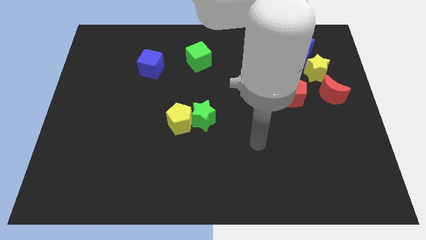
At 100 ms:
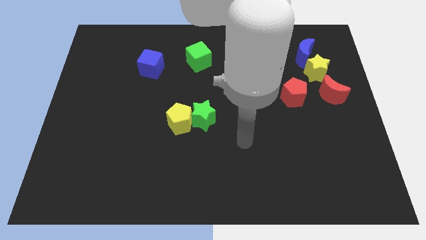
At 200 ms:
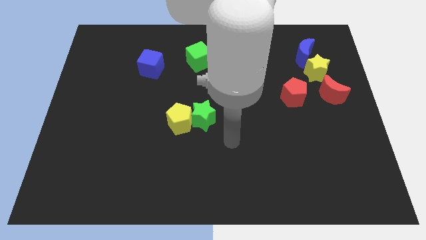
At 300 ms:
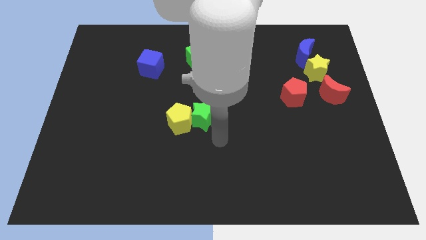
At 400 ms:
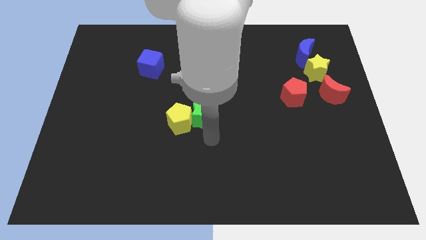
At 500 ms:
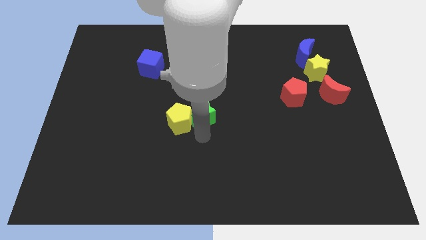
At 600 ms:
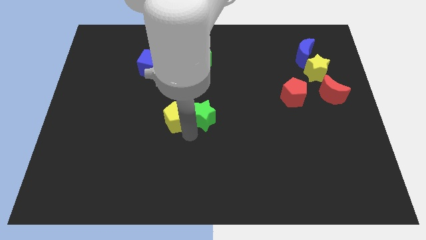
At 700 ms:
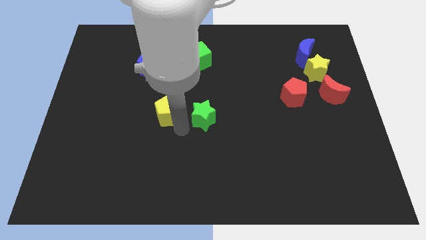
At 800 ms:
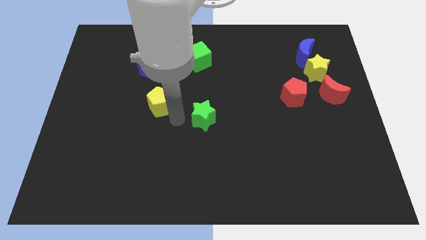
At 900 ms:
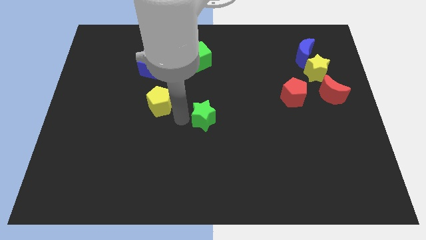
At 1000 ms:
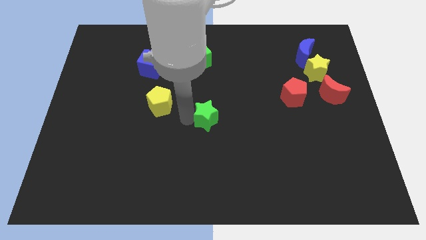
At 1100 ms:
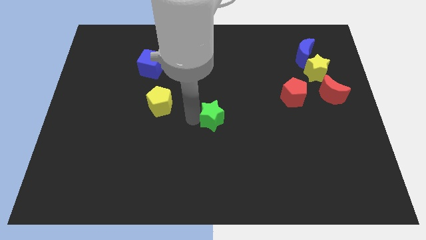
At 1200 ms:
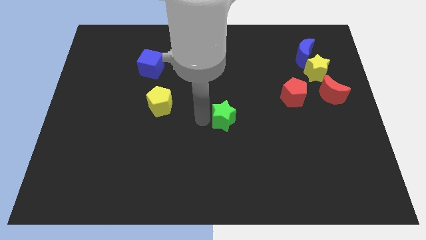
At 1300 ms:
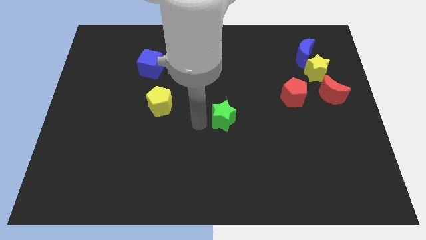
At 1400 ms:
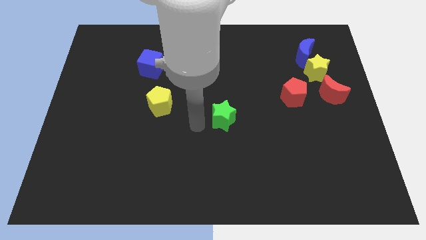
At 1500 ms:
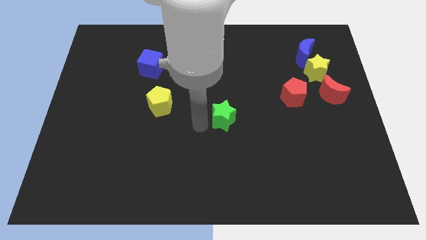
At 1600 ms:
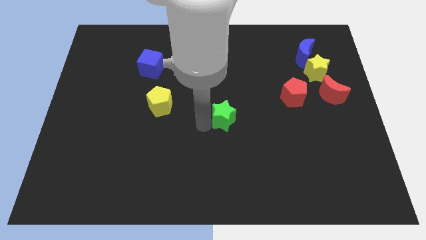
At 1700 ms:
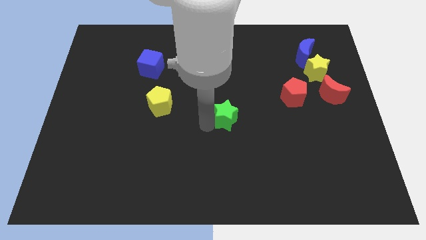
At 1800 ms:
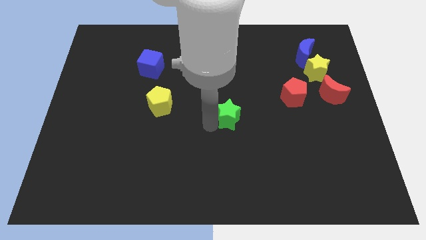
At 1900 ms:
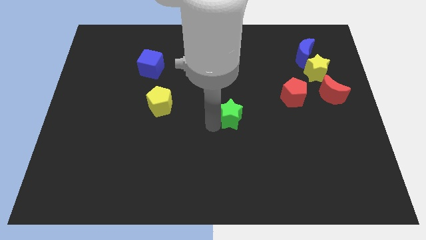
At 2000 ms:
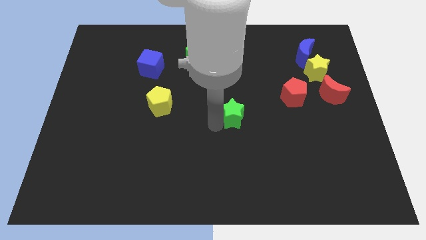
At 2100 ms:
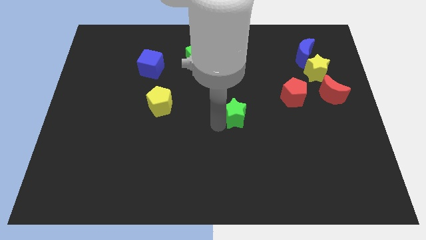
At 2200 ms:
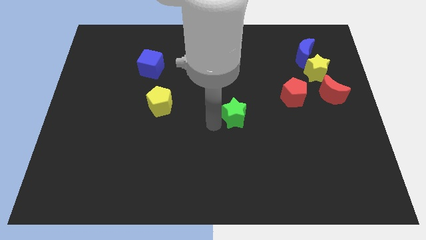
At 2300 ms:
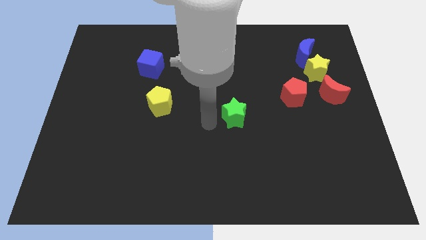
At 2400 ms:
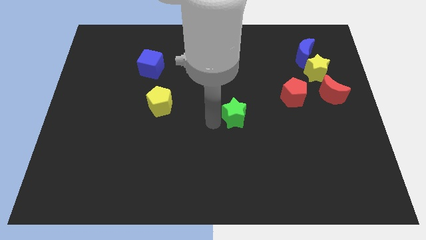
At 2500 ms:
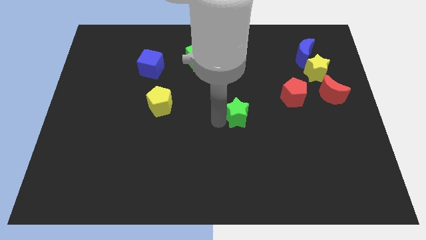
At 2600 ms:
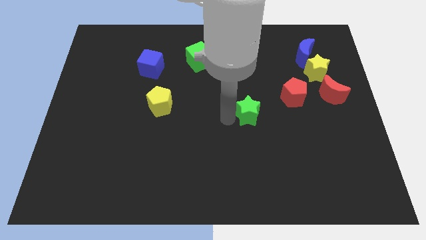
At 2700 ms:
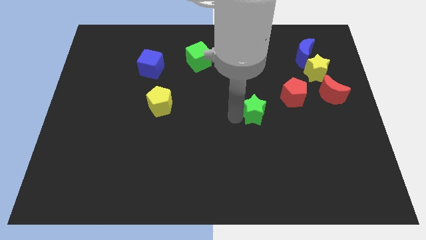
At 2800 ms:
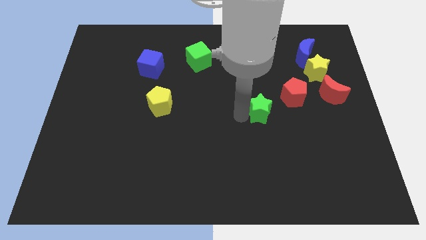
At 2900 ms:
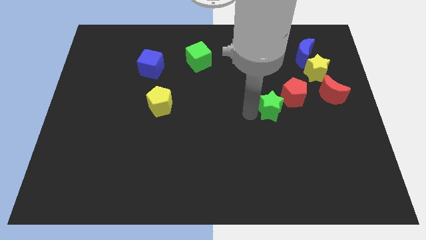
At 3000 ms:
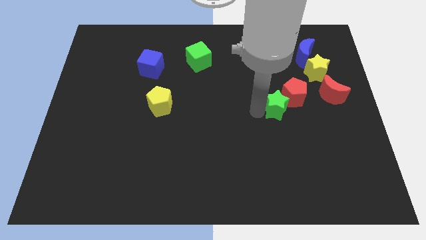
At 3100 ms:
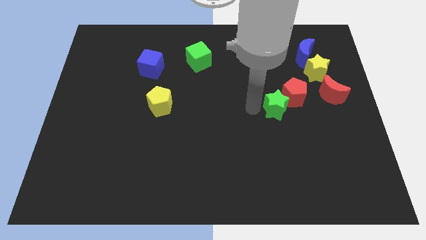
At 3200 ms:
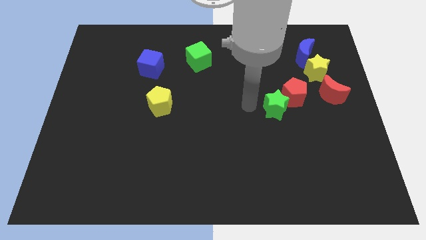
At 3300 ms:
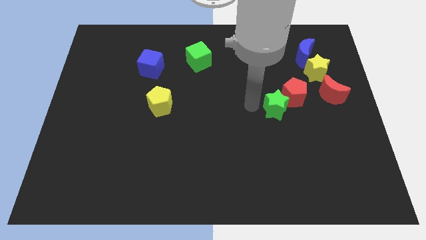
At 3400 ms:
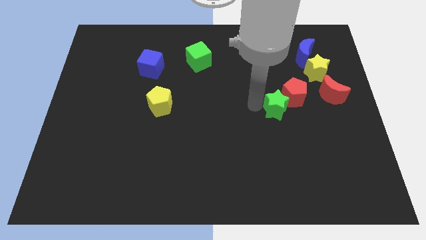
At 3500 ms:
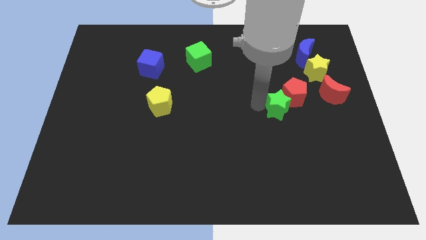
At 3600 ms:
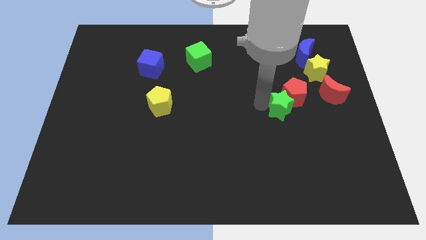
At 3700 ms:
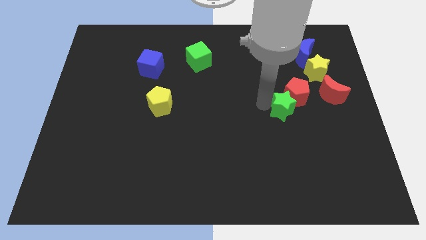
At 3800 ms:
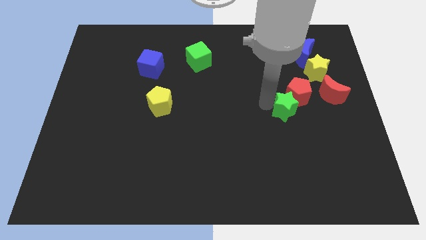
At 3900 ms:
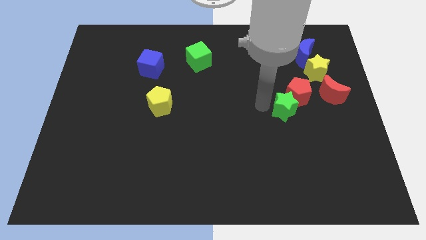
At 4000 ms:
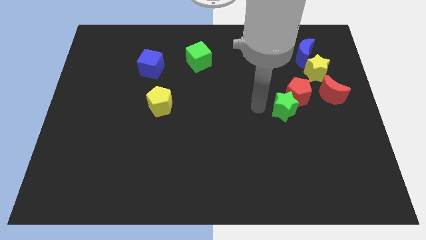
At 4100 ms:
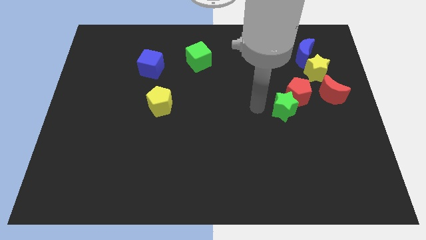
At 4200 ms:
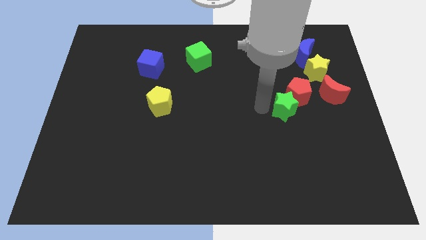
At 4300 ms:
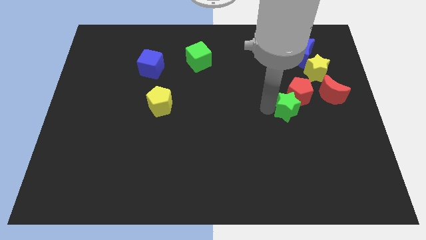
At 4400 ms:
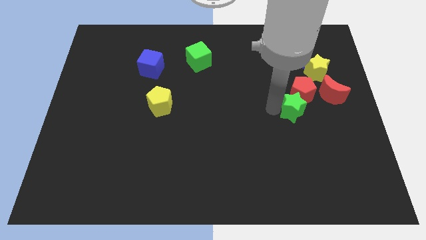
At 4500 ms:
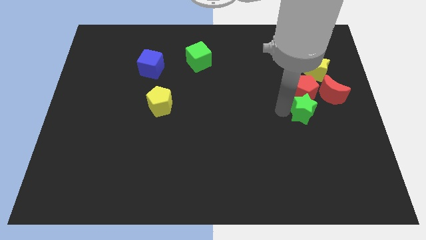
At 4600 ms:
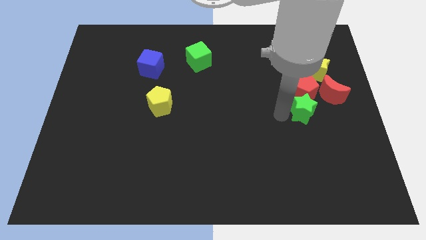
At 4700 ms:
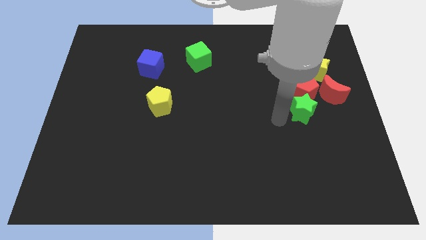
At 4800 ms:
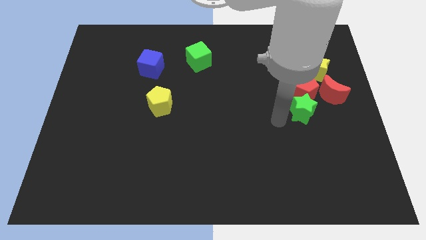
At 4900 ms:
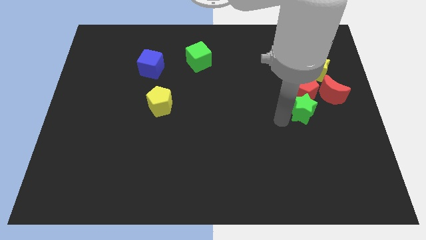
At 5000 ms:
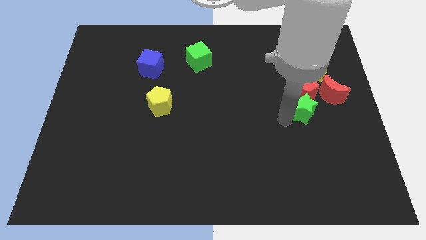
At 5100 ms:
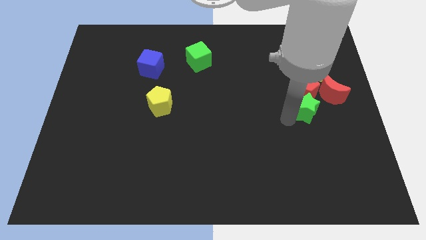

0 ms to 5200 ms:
slide the green star to the bottom of the yellow star

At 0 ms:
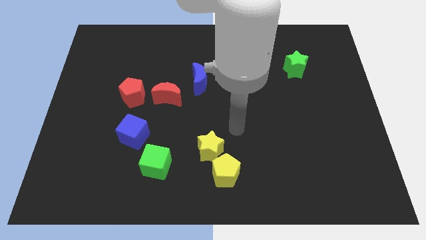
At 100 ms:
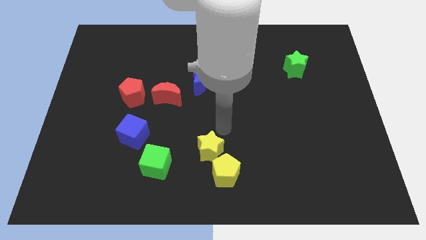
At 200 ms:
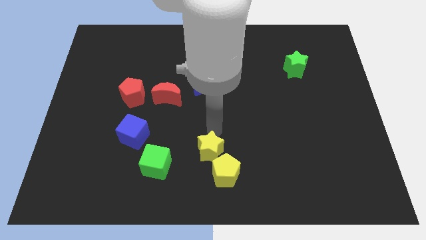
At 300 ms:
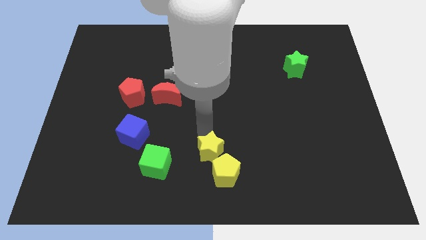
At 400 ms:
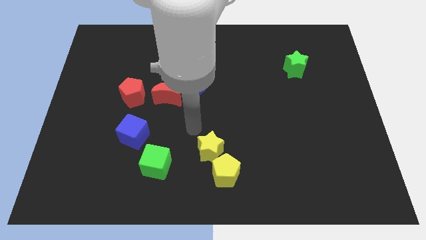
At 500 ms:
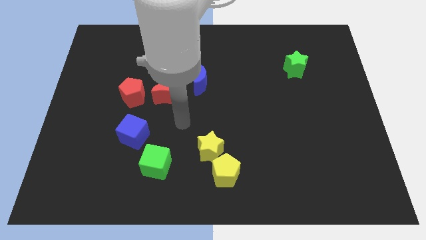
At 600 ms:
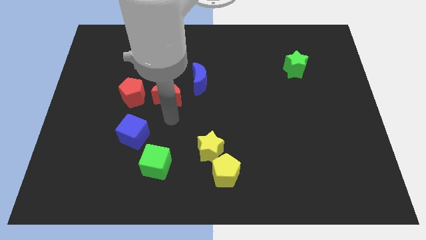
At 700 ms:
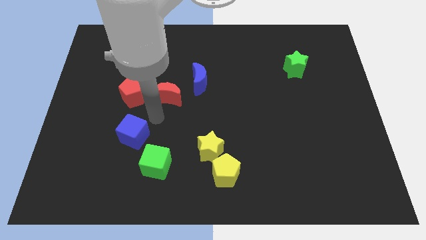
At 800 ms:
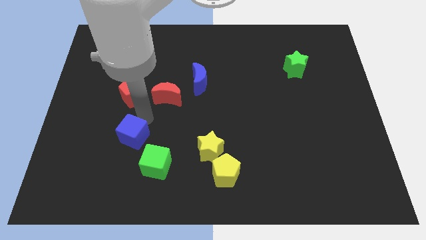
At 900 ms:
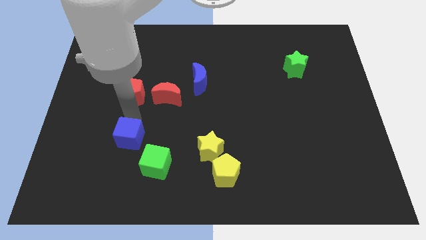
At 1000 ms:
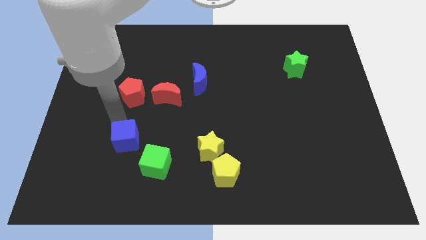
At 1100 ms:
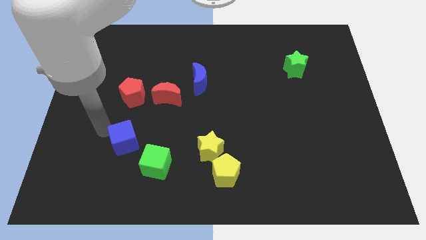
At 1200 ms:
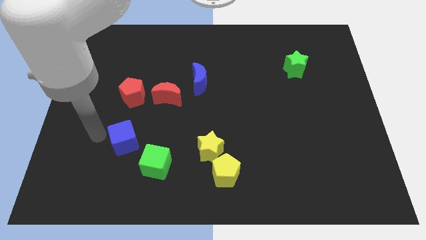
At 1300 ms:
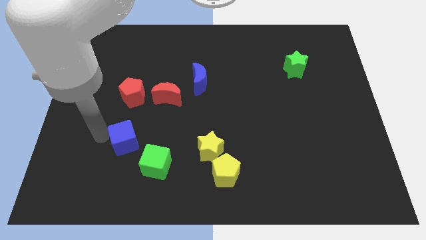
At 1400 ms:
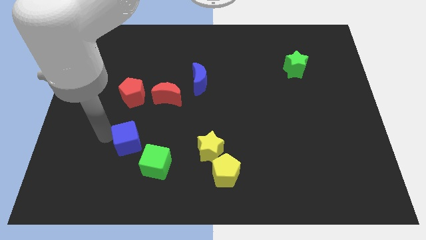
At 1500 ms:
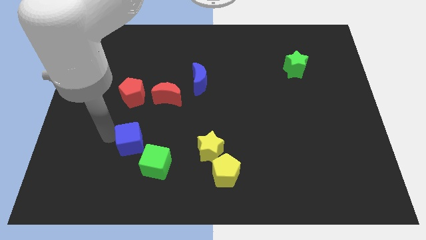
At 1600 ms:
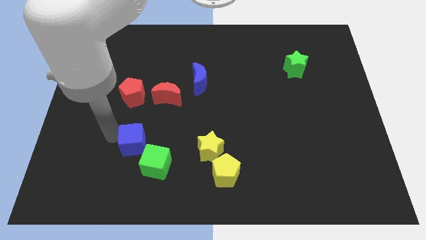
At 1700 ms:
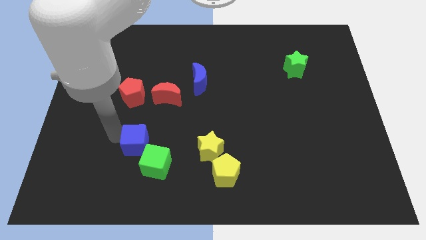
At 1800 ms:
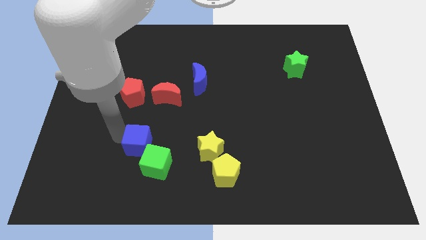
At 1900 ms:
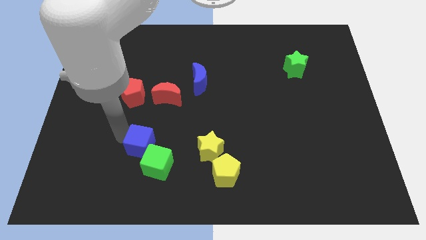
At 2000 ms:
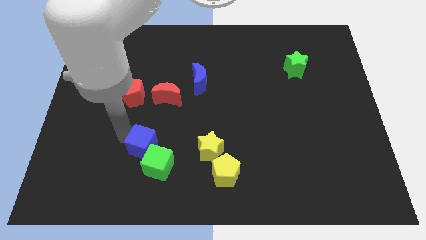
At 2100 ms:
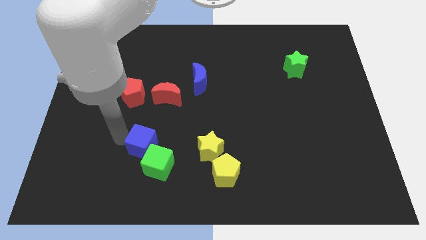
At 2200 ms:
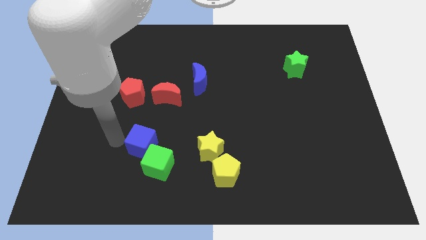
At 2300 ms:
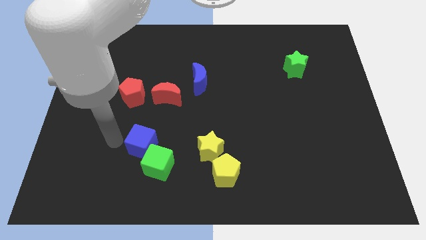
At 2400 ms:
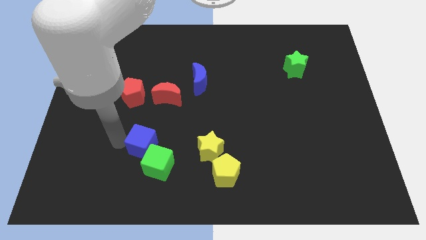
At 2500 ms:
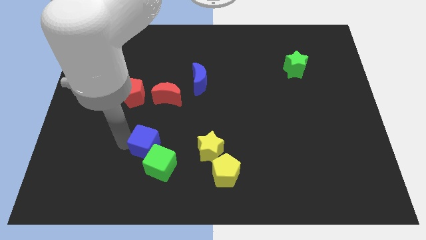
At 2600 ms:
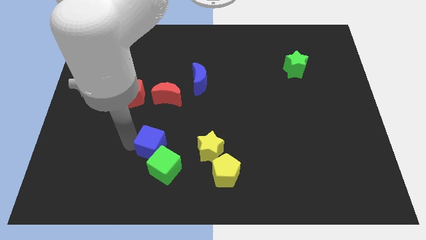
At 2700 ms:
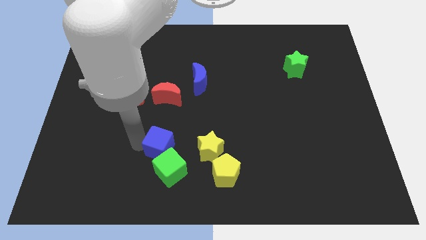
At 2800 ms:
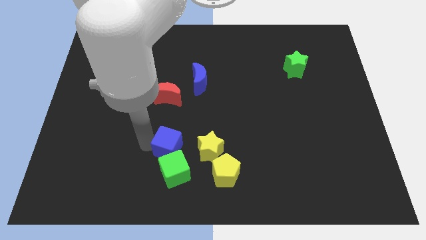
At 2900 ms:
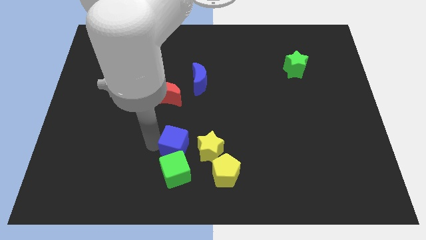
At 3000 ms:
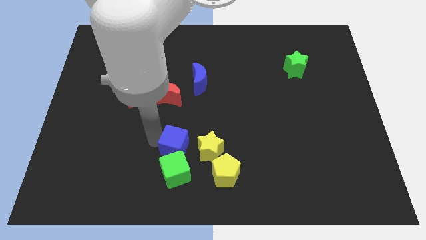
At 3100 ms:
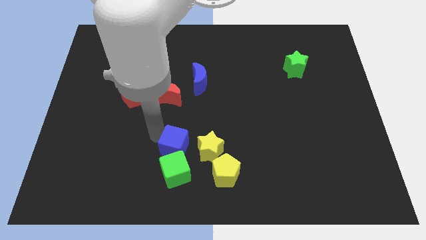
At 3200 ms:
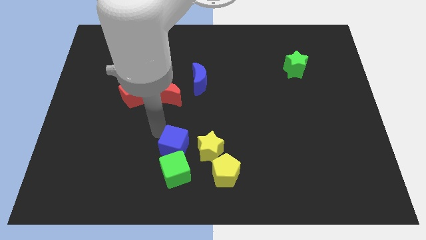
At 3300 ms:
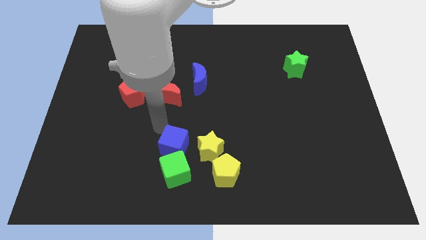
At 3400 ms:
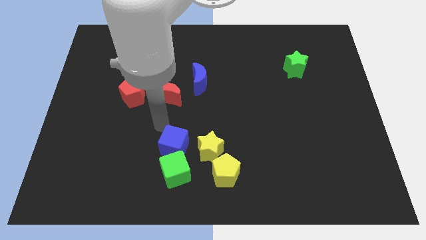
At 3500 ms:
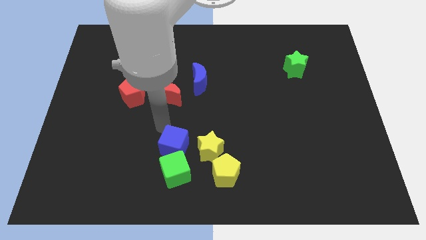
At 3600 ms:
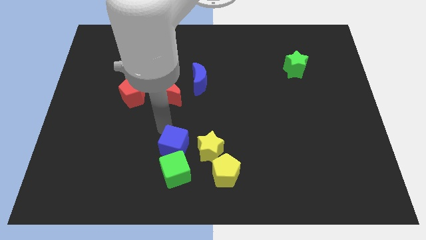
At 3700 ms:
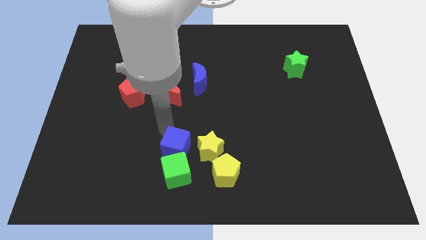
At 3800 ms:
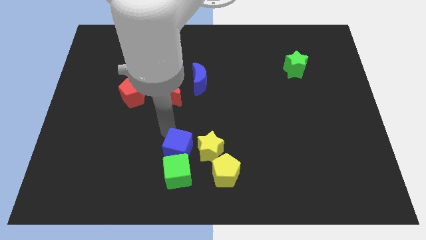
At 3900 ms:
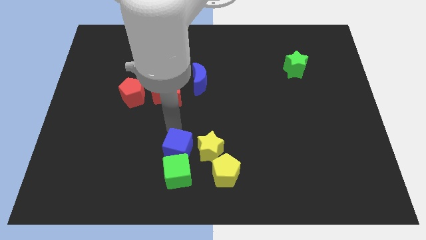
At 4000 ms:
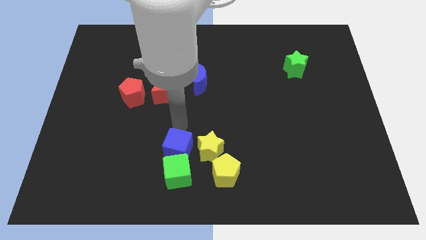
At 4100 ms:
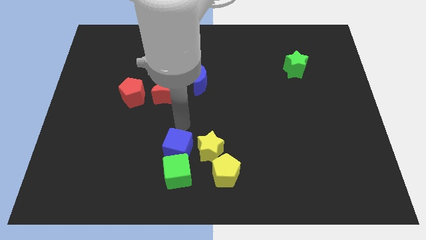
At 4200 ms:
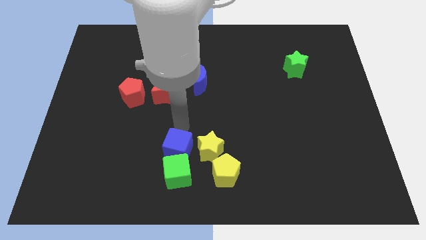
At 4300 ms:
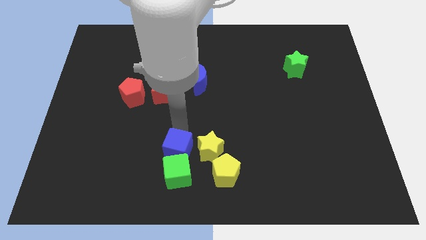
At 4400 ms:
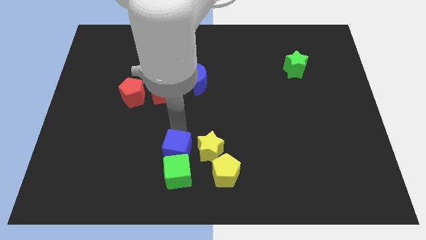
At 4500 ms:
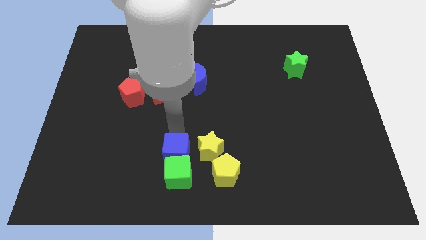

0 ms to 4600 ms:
push the blue cube left of the yellow pentagon
